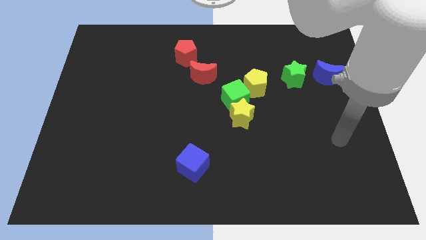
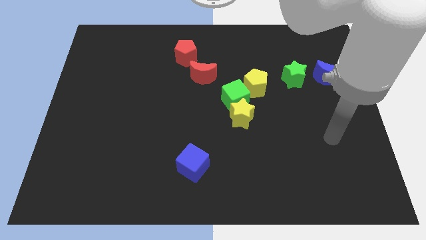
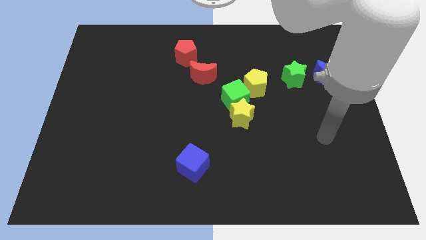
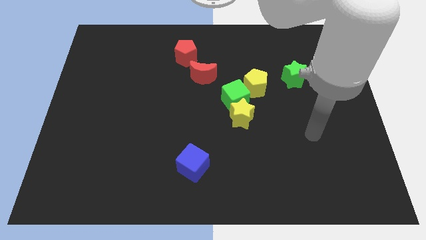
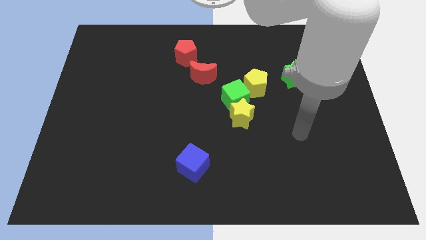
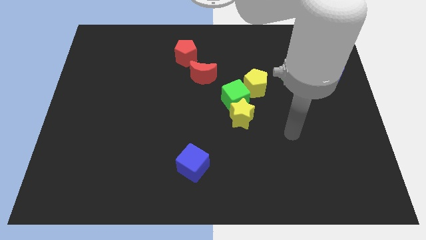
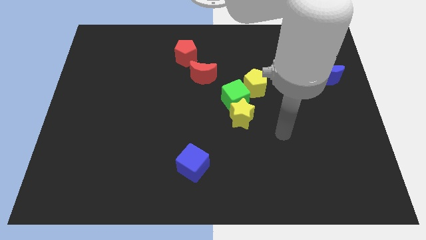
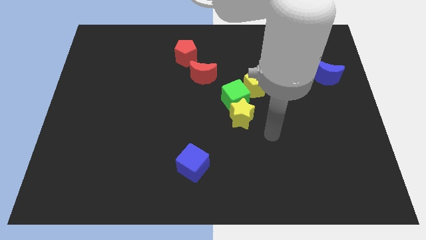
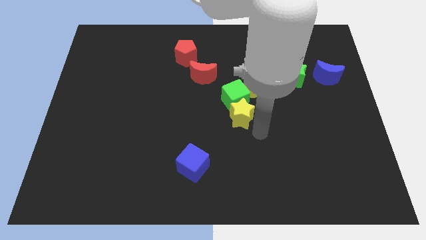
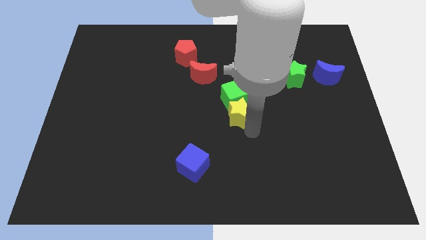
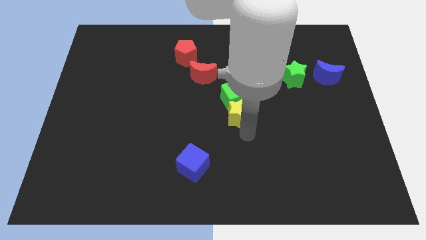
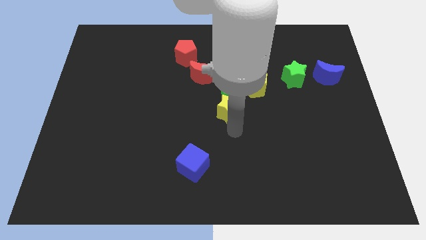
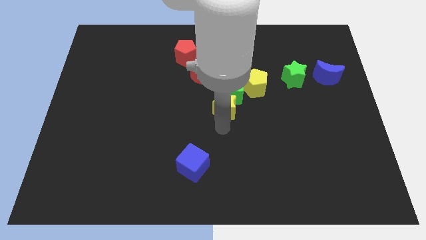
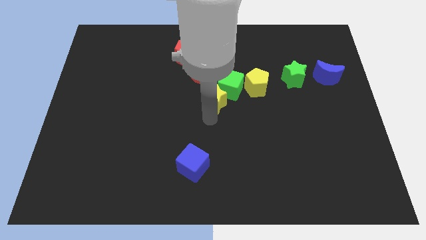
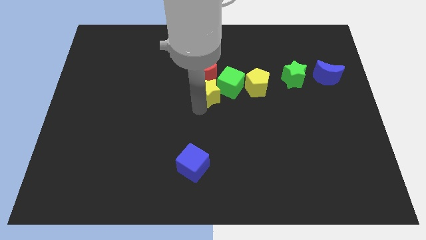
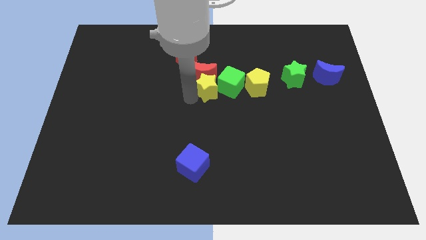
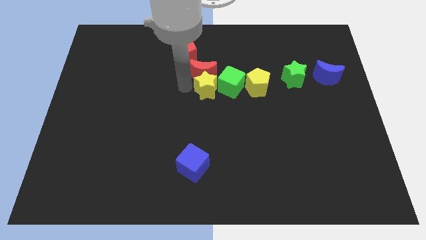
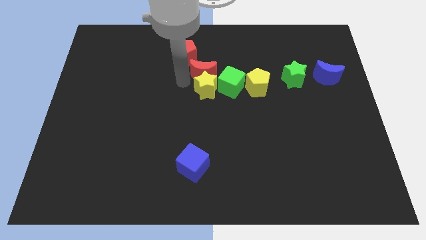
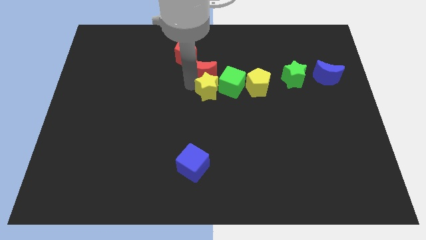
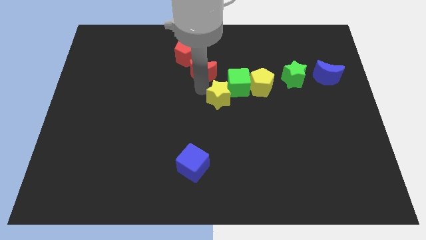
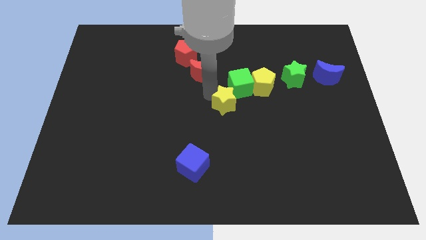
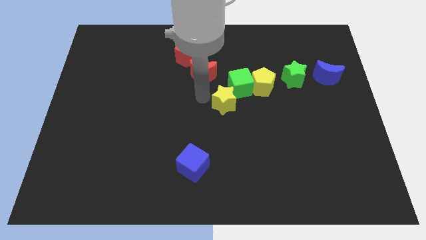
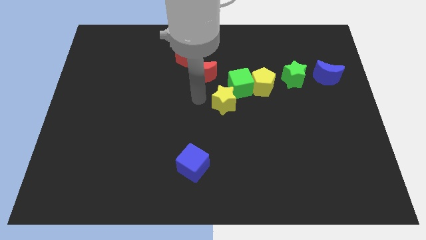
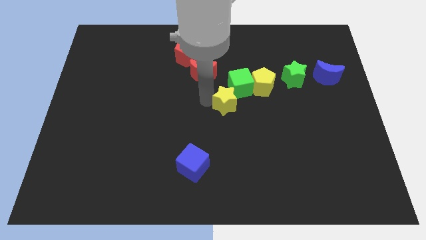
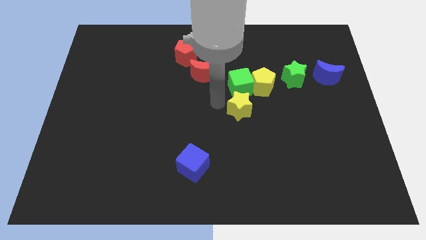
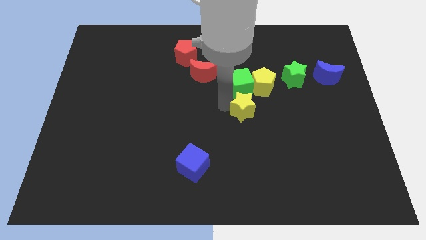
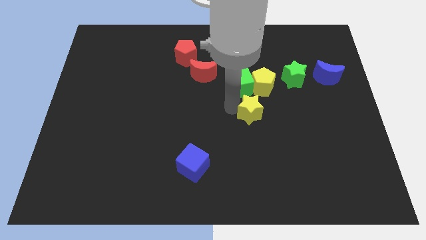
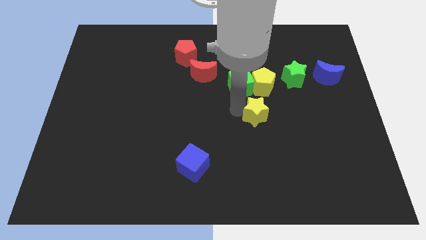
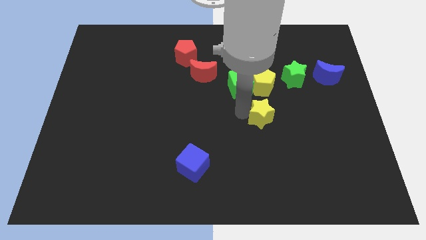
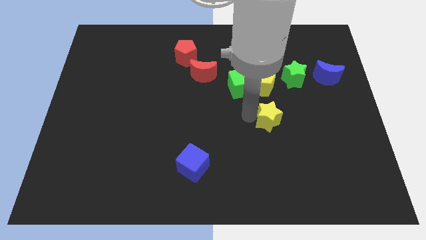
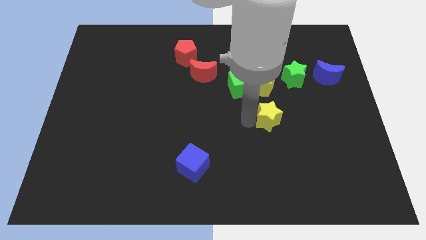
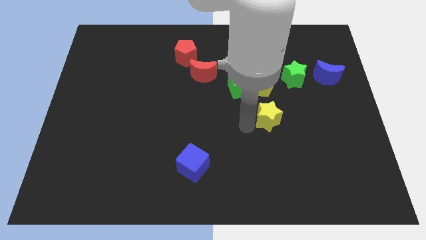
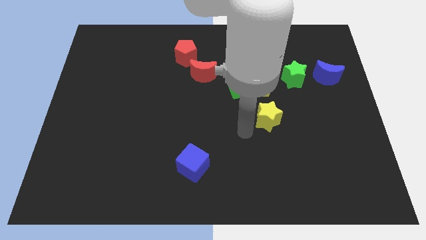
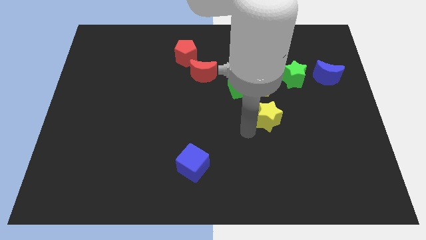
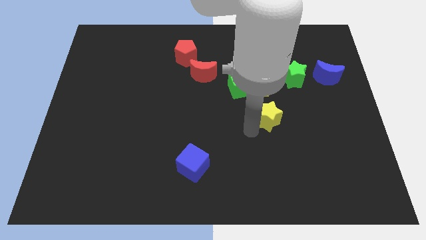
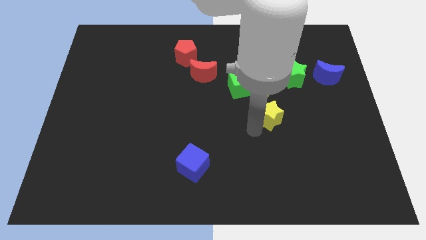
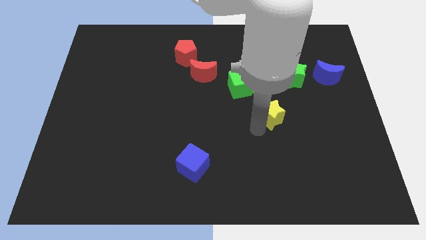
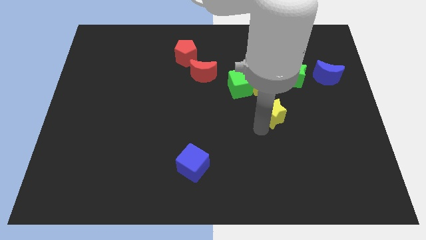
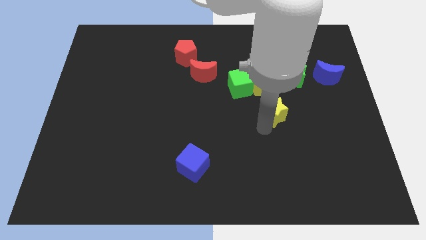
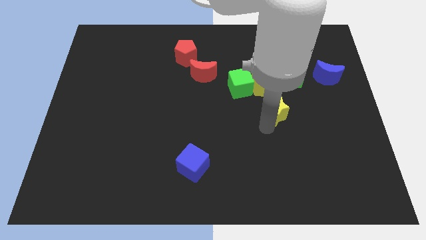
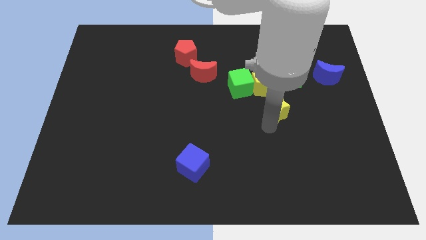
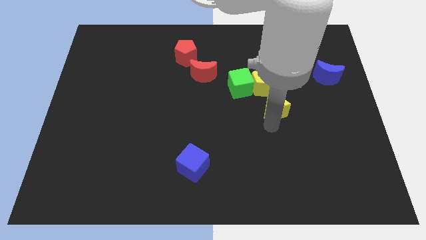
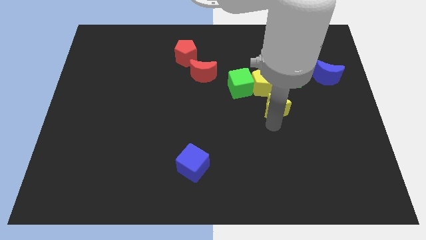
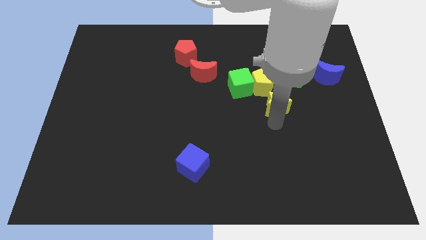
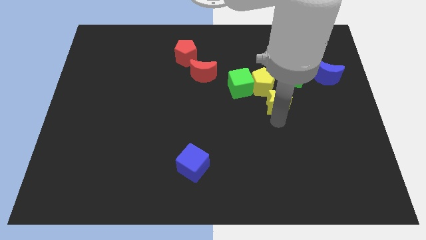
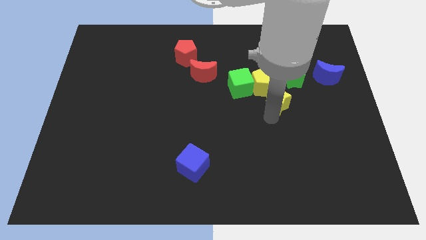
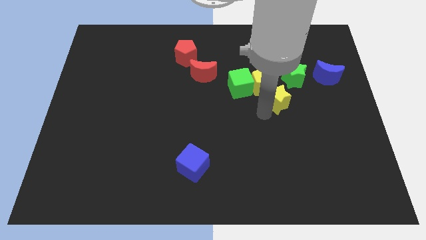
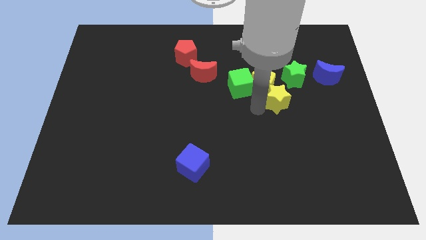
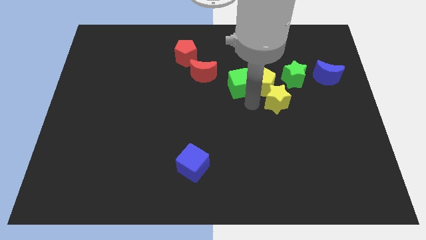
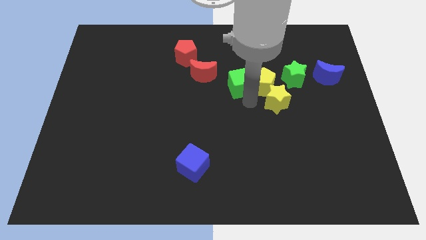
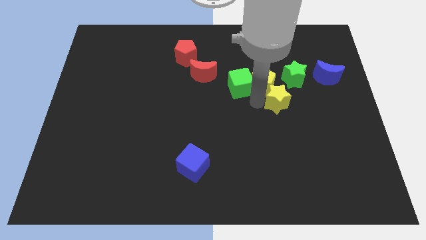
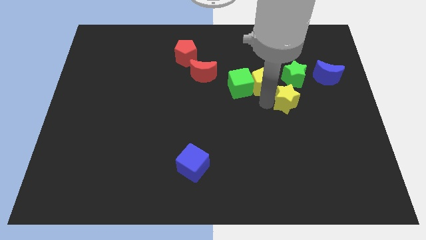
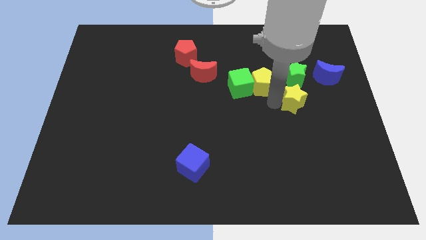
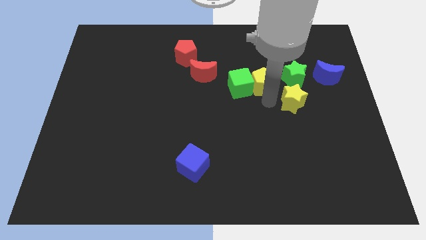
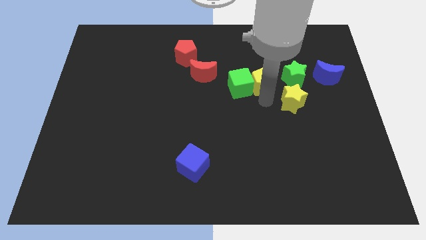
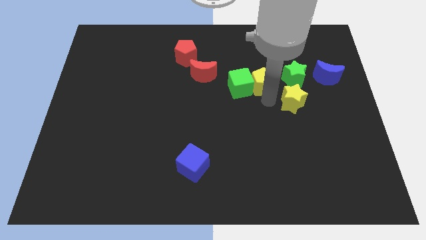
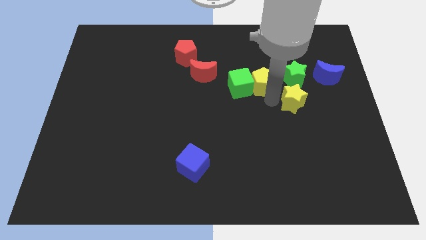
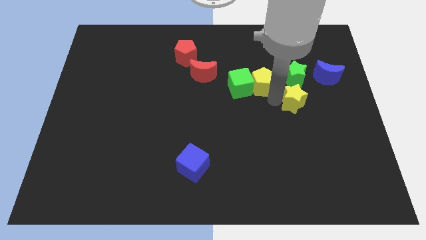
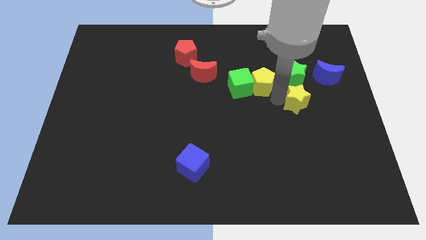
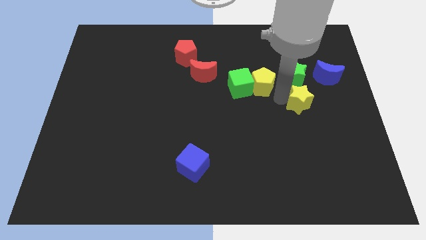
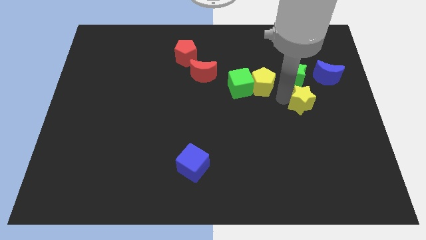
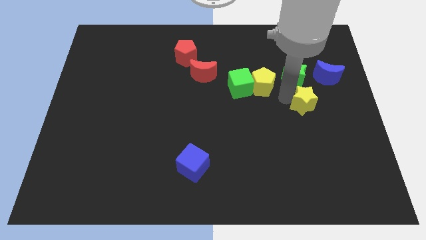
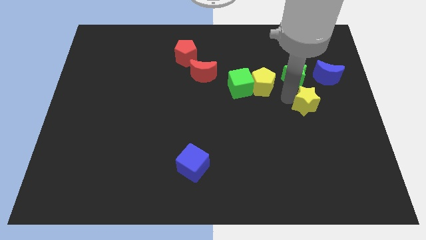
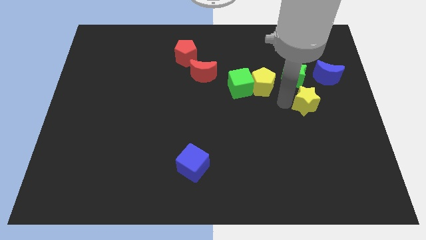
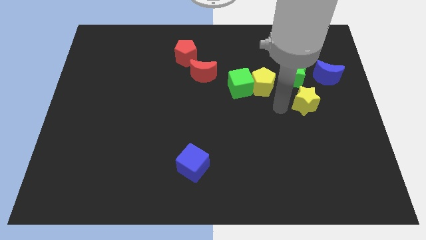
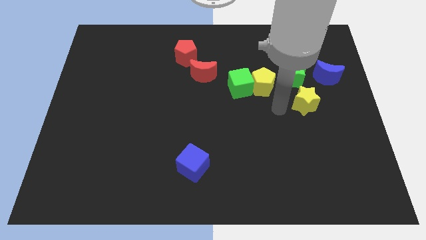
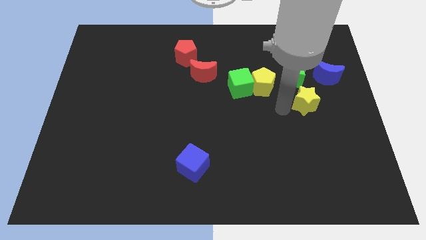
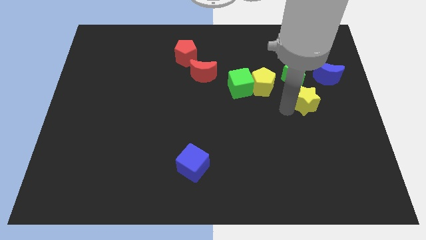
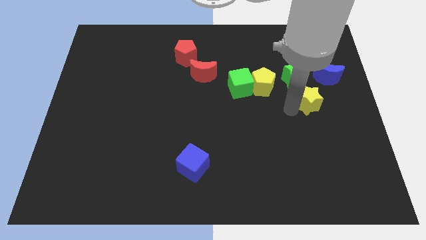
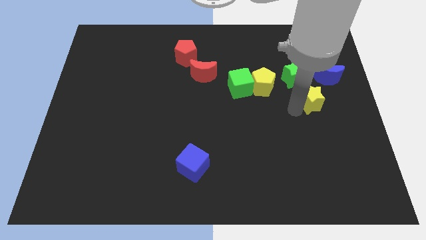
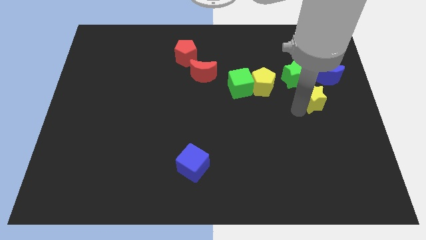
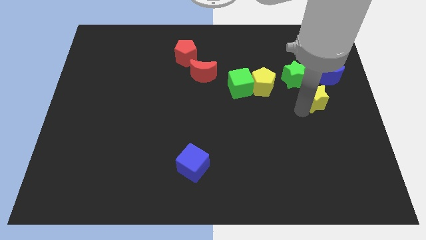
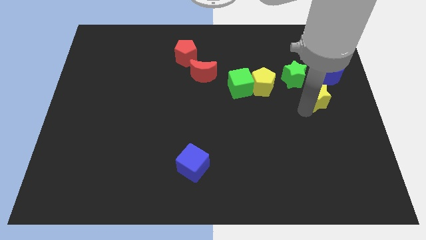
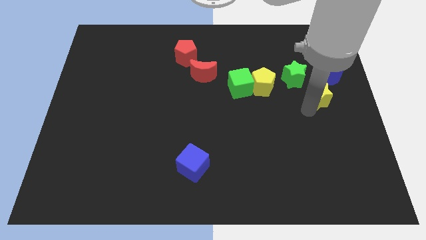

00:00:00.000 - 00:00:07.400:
put the yellow star to the right side

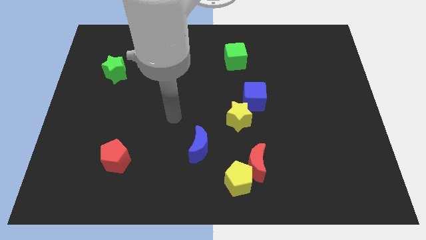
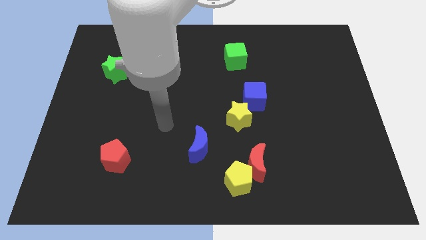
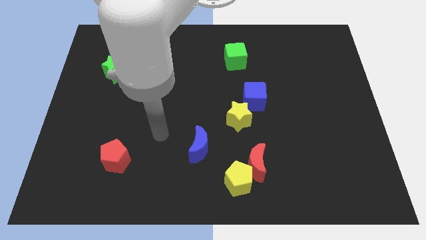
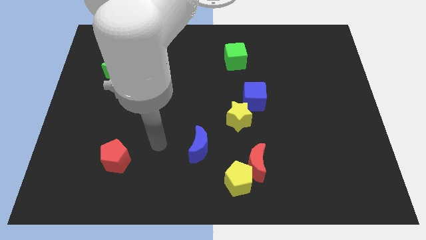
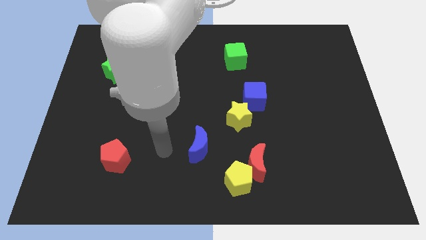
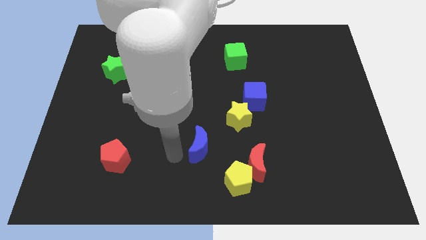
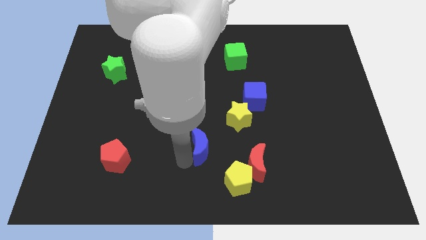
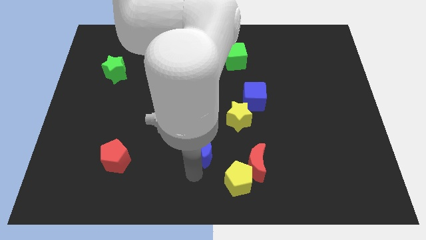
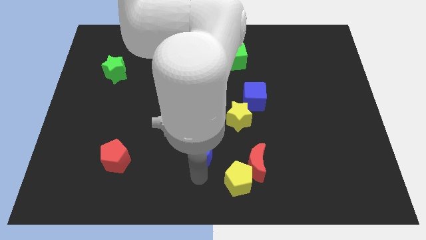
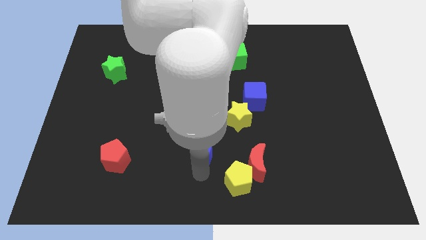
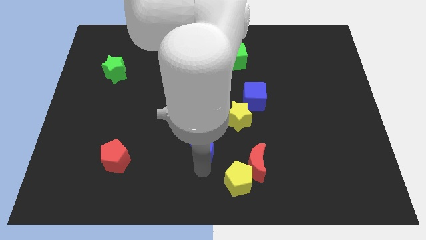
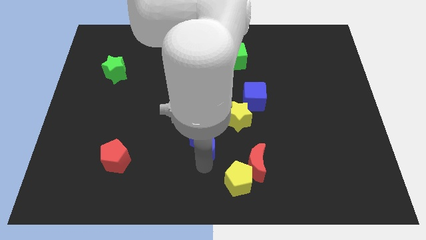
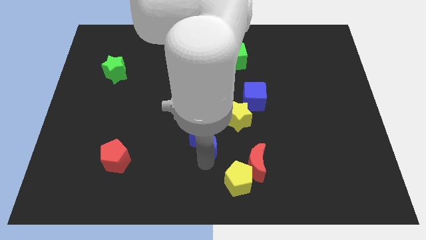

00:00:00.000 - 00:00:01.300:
put the blue moon to the center
